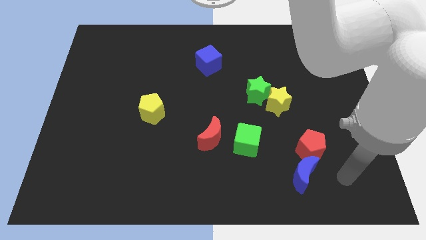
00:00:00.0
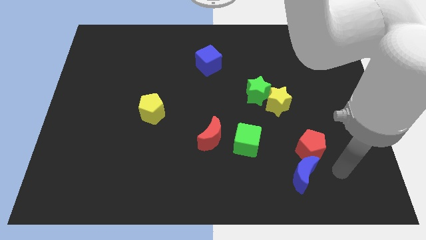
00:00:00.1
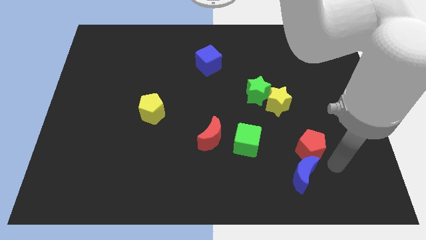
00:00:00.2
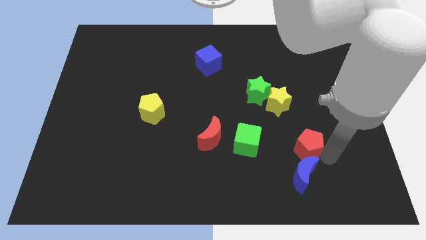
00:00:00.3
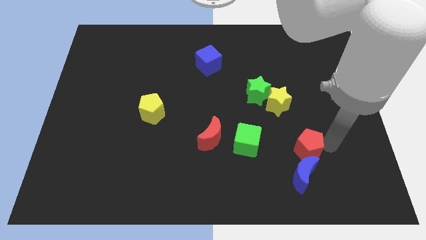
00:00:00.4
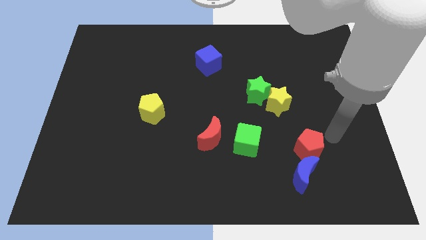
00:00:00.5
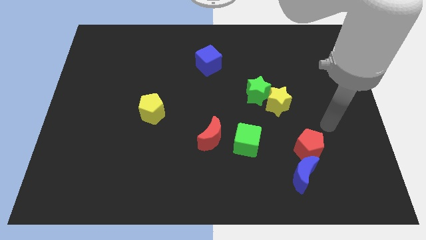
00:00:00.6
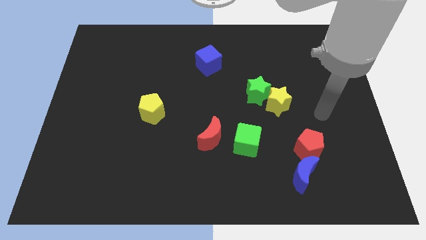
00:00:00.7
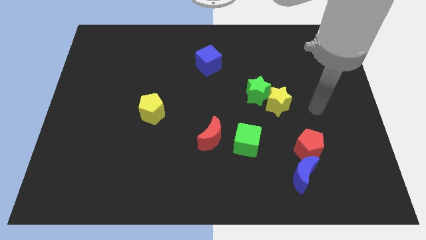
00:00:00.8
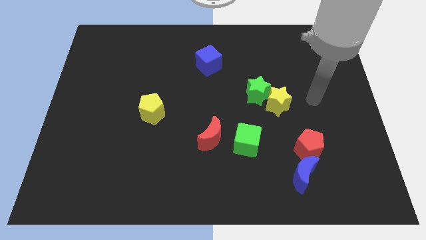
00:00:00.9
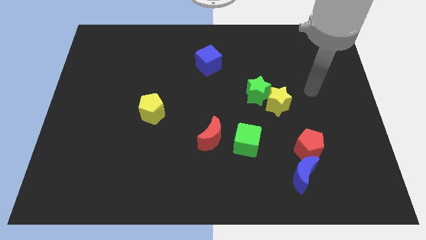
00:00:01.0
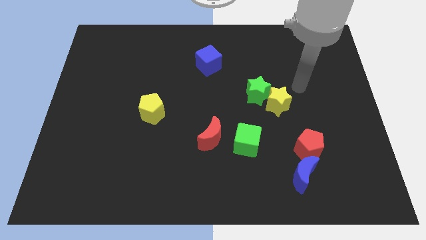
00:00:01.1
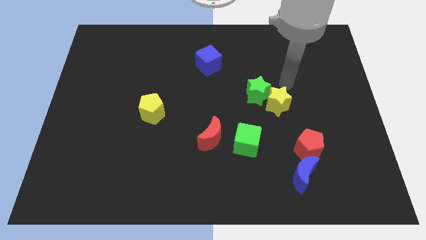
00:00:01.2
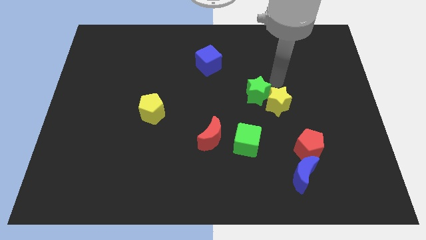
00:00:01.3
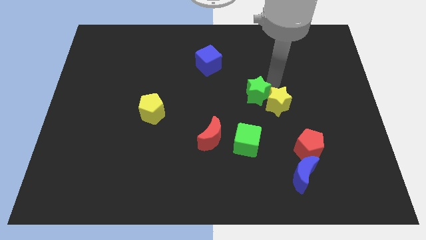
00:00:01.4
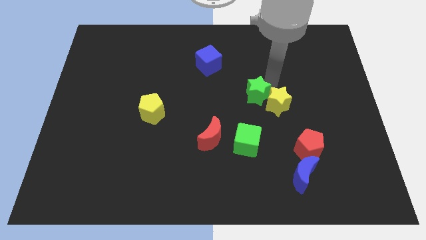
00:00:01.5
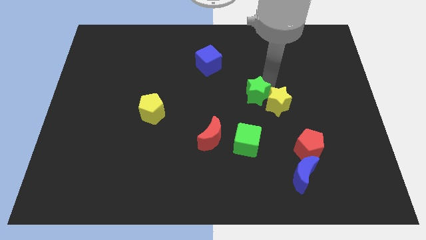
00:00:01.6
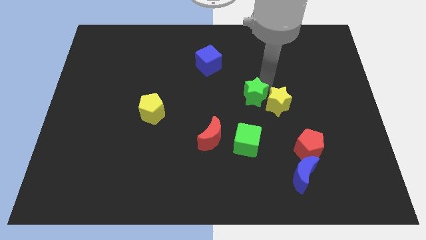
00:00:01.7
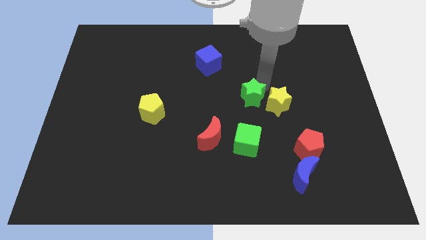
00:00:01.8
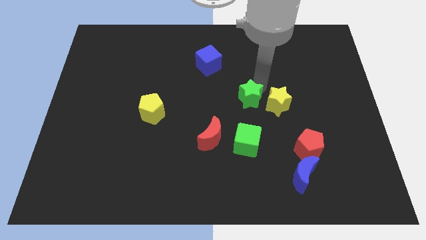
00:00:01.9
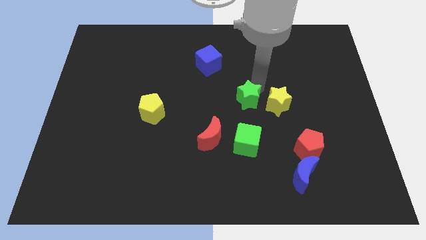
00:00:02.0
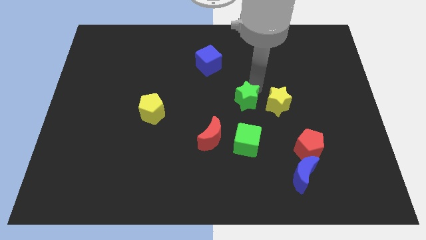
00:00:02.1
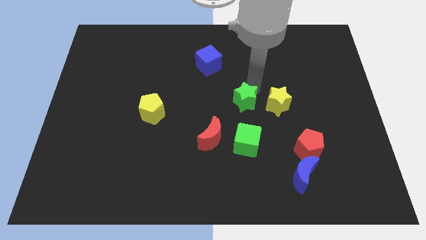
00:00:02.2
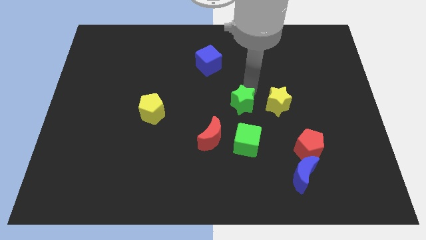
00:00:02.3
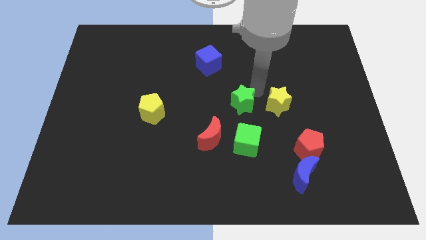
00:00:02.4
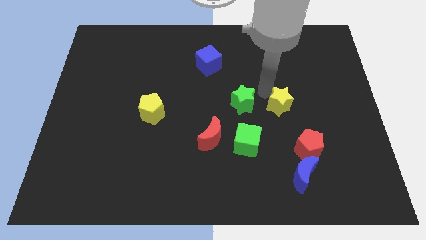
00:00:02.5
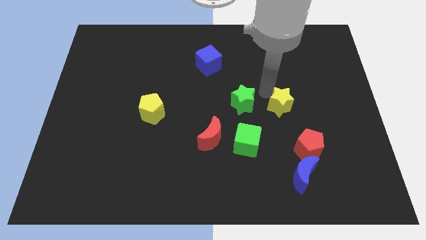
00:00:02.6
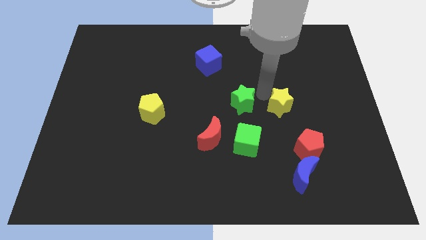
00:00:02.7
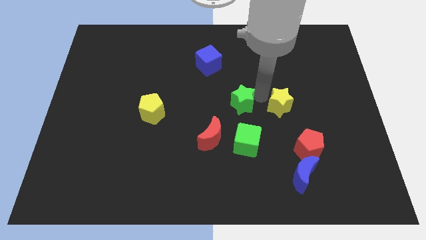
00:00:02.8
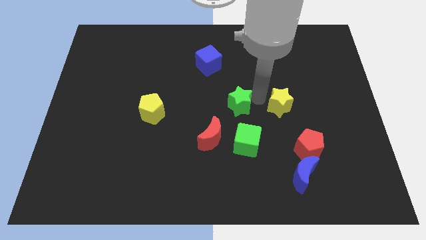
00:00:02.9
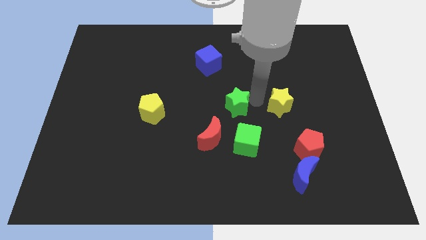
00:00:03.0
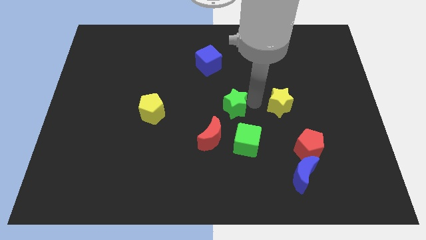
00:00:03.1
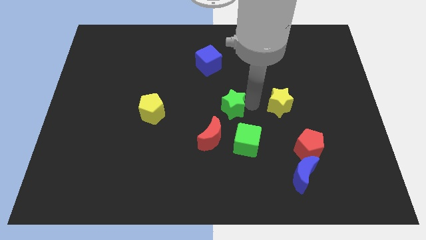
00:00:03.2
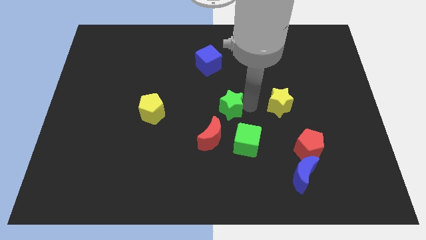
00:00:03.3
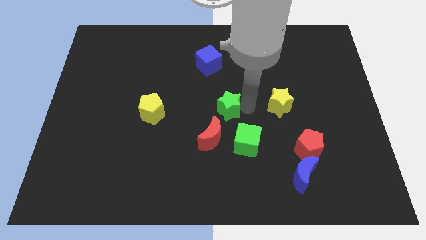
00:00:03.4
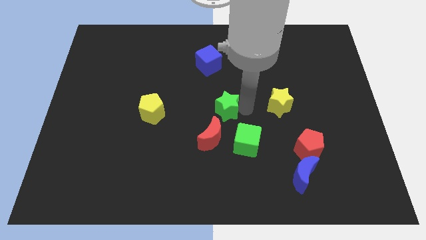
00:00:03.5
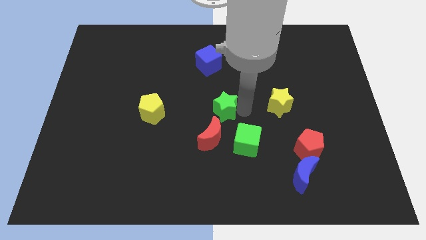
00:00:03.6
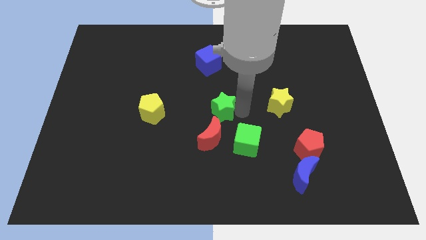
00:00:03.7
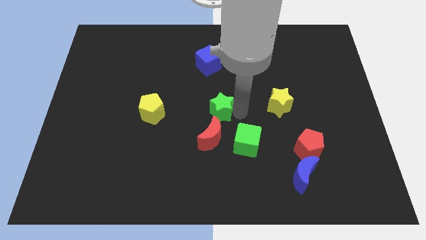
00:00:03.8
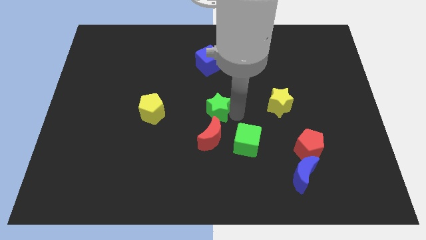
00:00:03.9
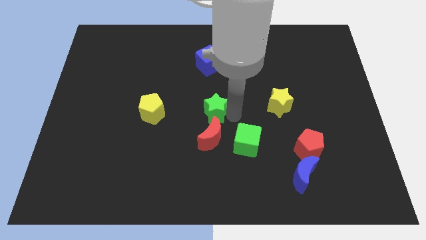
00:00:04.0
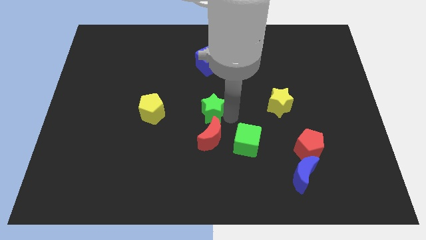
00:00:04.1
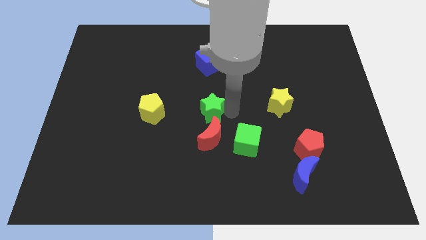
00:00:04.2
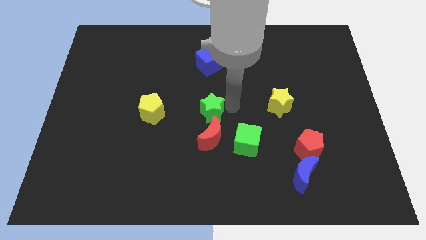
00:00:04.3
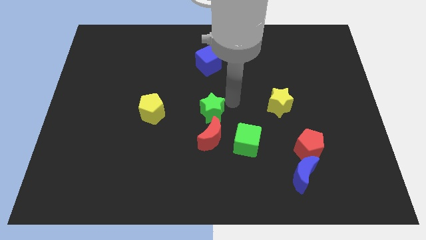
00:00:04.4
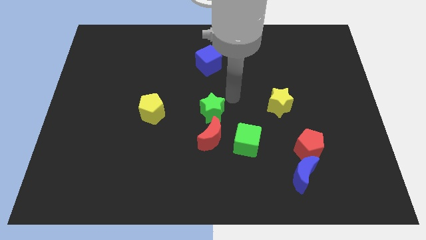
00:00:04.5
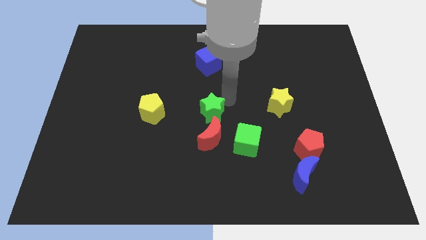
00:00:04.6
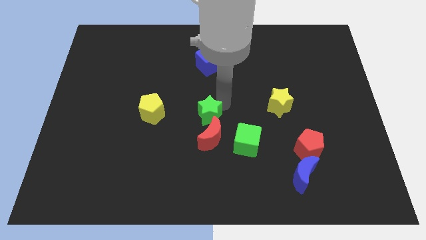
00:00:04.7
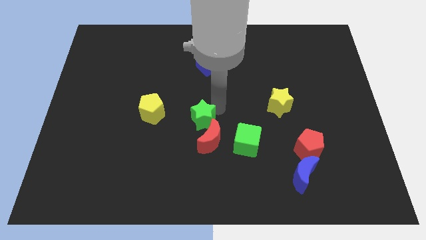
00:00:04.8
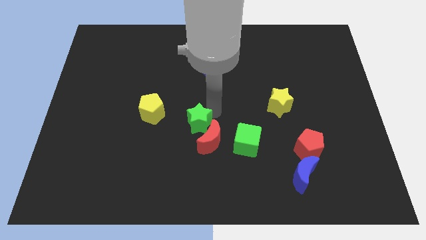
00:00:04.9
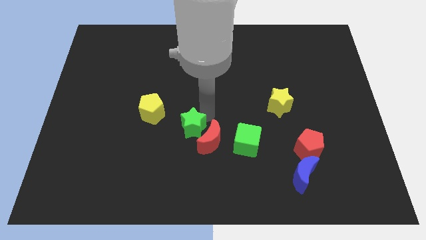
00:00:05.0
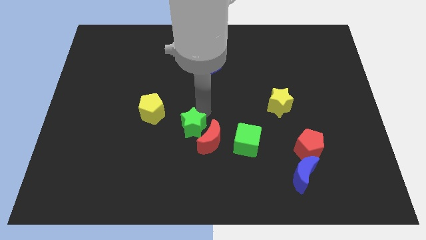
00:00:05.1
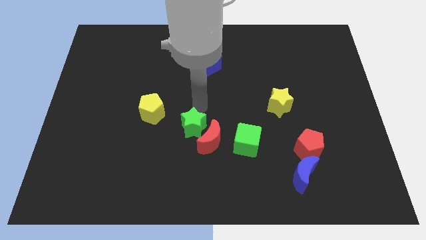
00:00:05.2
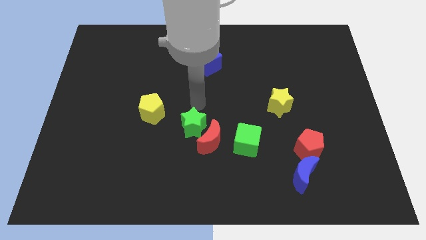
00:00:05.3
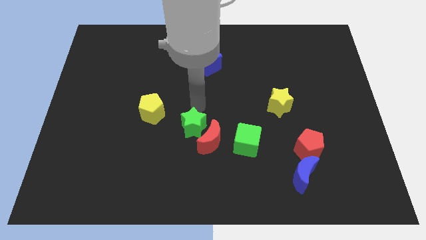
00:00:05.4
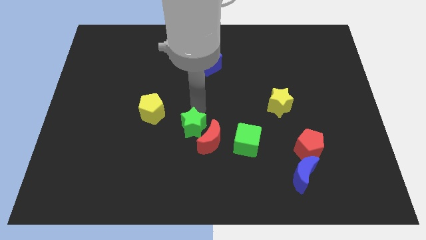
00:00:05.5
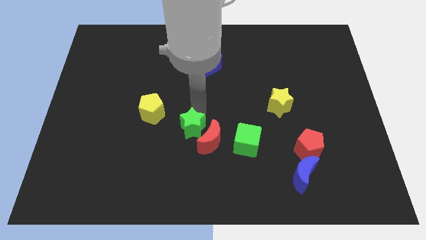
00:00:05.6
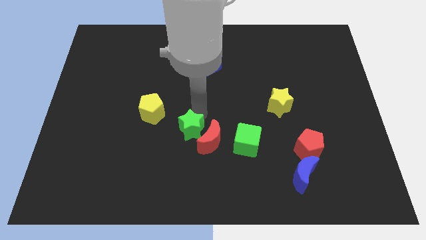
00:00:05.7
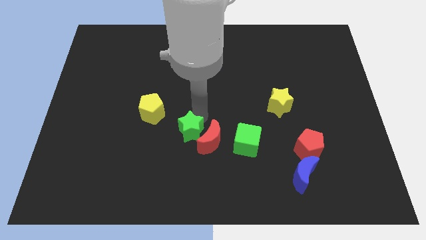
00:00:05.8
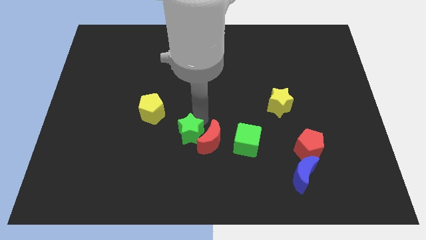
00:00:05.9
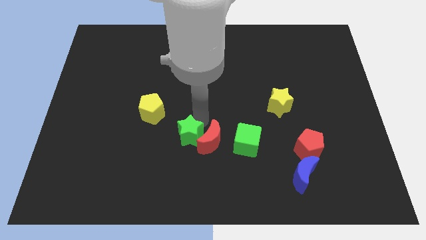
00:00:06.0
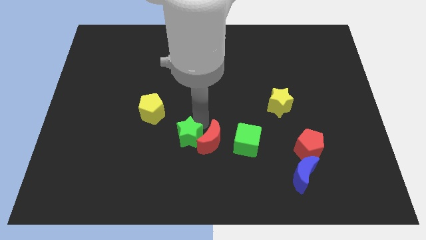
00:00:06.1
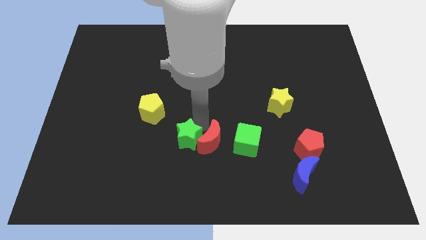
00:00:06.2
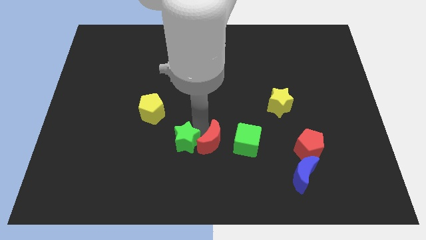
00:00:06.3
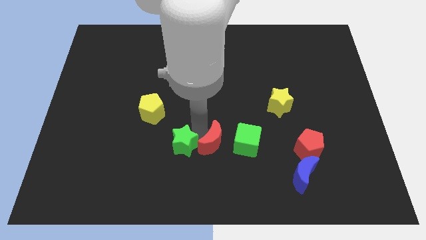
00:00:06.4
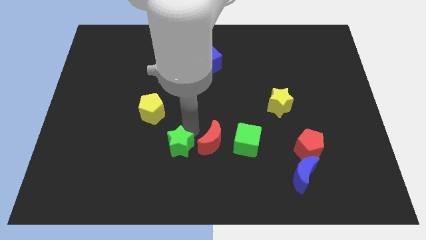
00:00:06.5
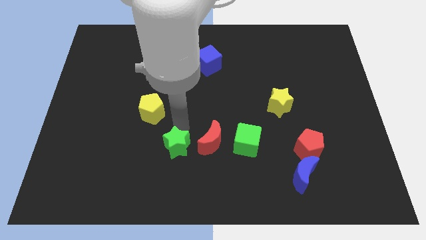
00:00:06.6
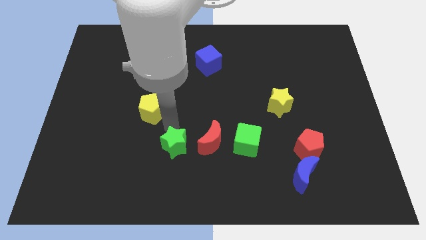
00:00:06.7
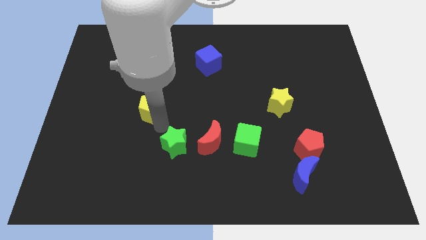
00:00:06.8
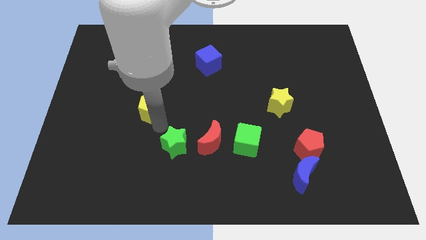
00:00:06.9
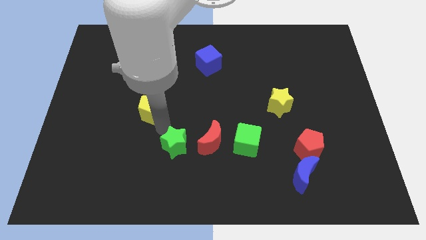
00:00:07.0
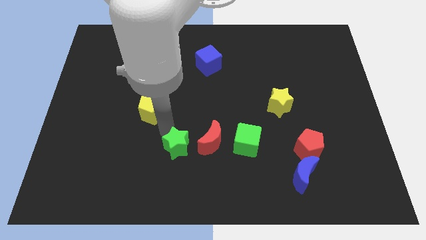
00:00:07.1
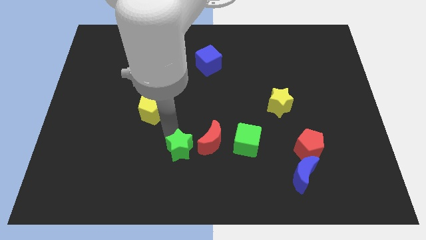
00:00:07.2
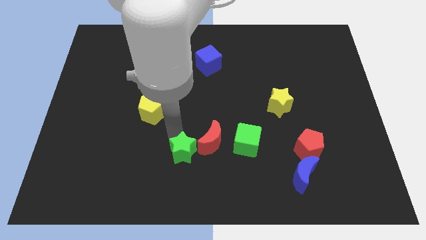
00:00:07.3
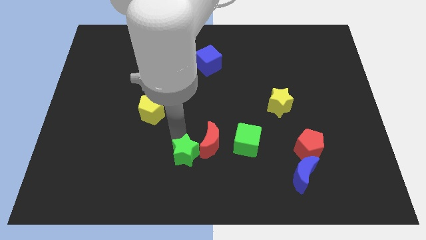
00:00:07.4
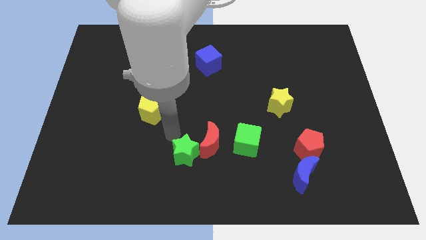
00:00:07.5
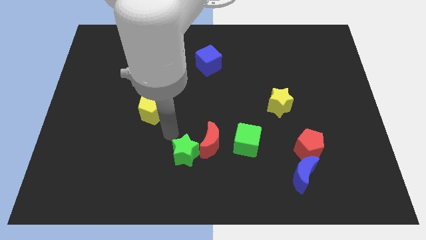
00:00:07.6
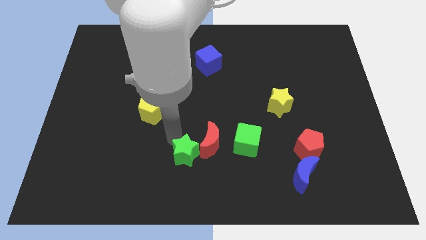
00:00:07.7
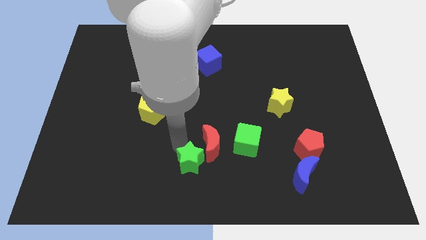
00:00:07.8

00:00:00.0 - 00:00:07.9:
move the green star to the bottom of the red moon
